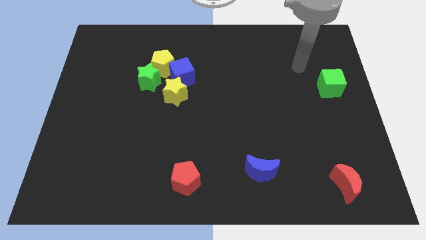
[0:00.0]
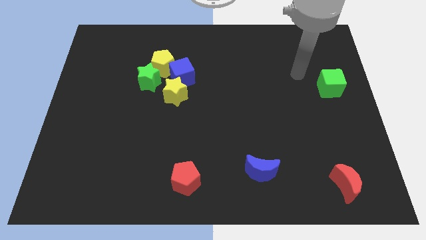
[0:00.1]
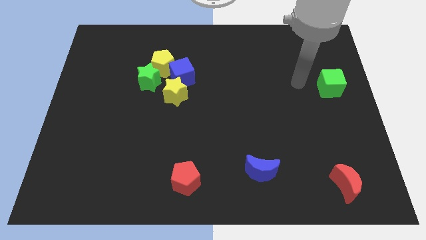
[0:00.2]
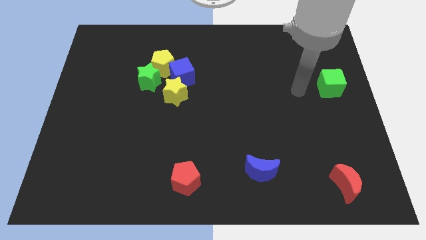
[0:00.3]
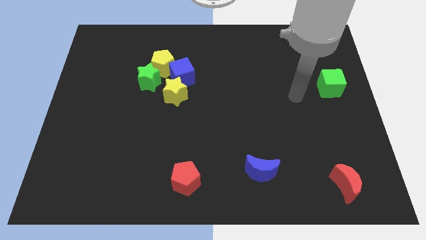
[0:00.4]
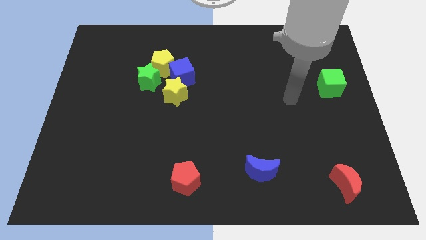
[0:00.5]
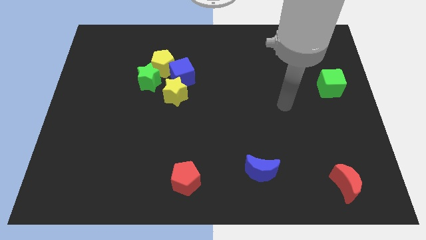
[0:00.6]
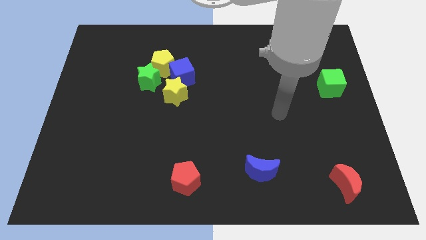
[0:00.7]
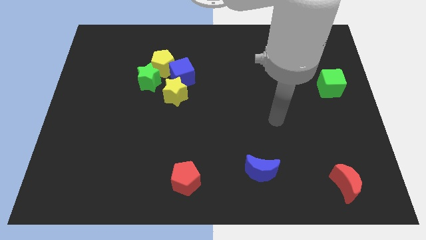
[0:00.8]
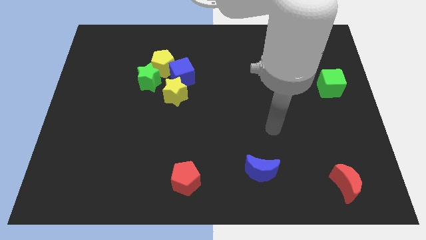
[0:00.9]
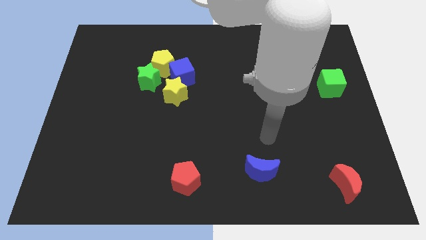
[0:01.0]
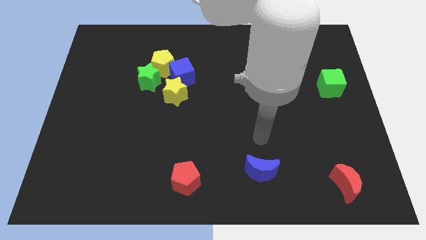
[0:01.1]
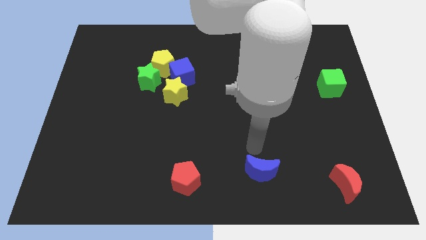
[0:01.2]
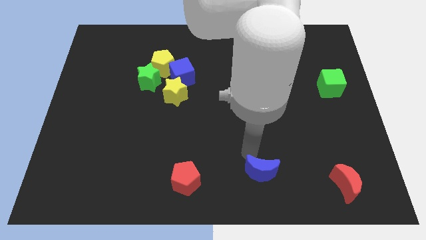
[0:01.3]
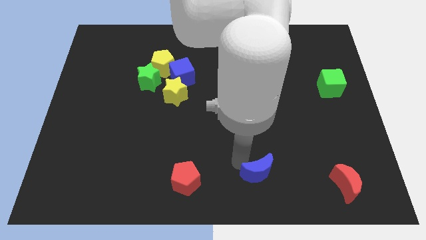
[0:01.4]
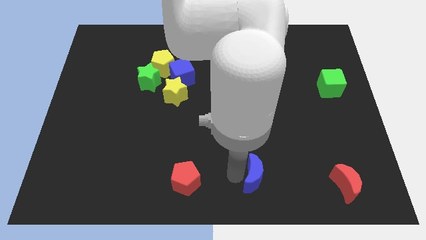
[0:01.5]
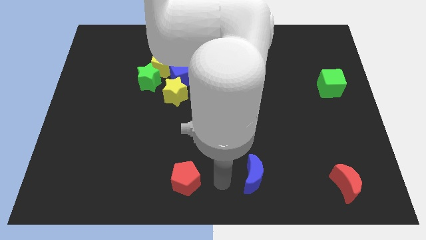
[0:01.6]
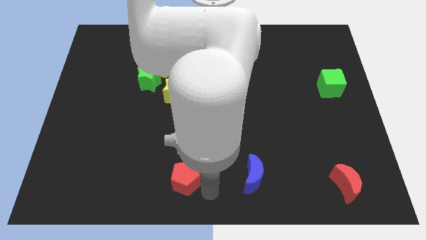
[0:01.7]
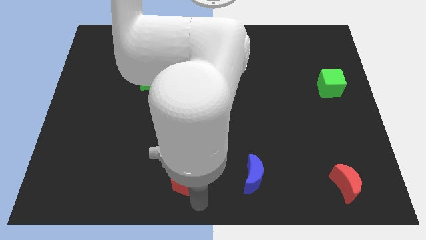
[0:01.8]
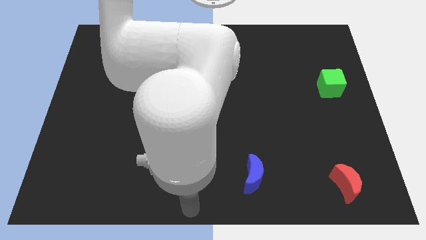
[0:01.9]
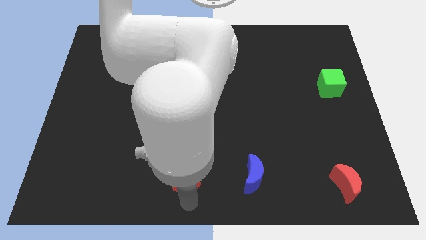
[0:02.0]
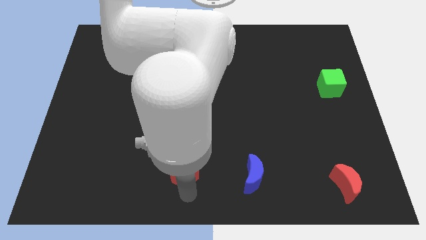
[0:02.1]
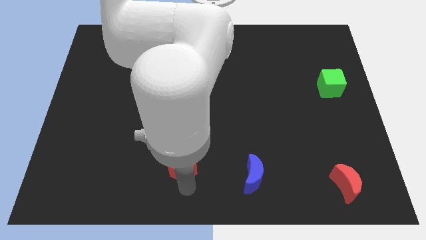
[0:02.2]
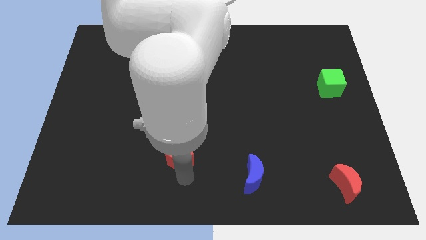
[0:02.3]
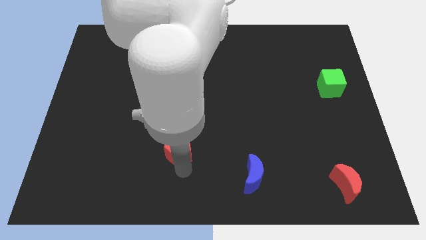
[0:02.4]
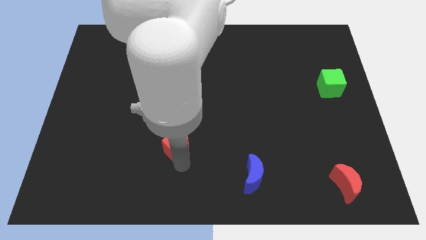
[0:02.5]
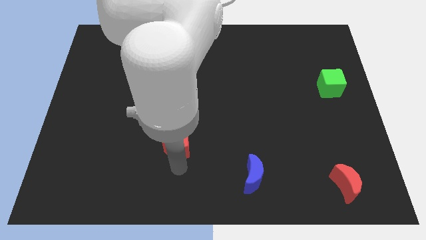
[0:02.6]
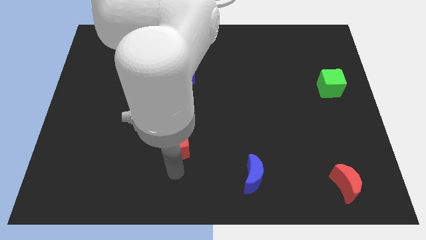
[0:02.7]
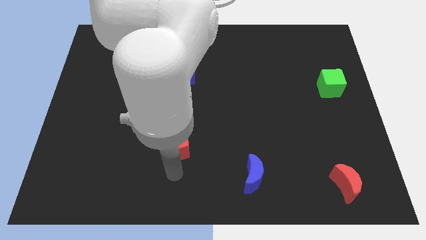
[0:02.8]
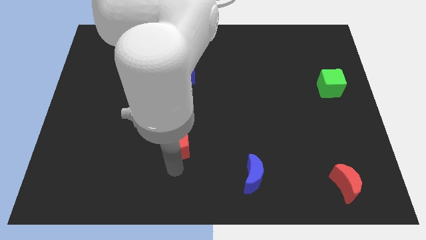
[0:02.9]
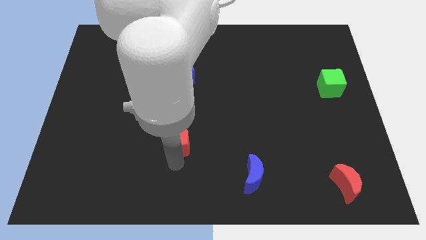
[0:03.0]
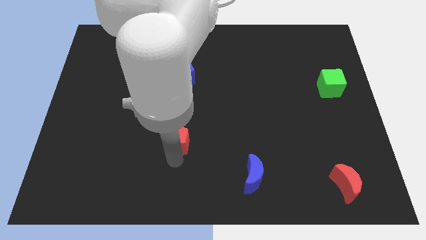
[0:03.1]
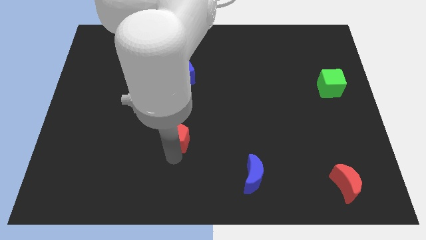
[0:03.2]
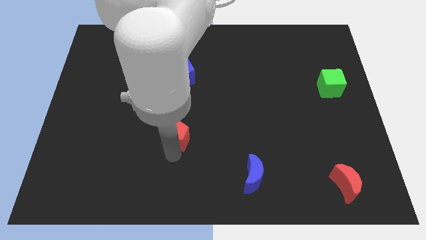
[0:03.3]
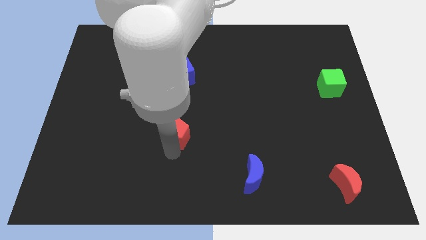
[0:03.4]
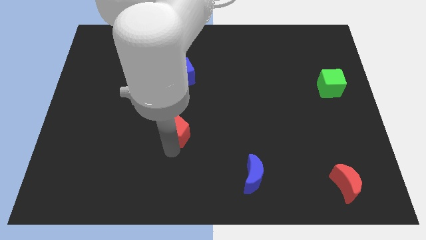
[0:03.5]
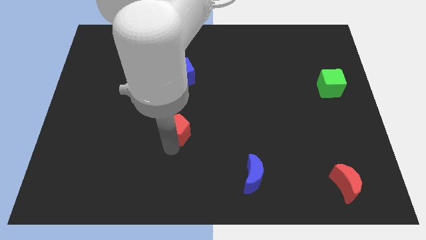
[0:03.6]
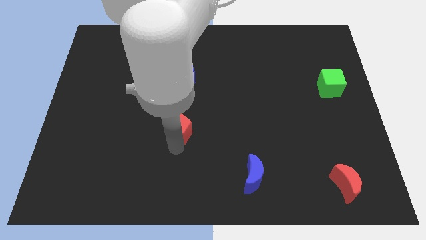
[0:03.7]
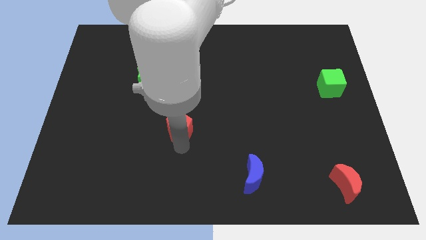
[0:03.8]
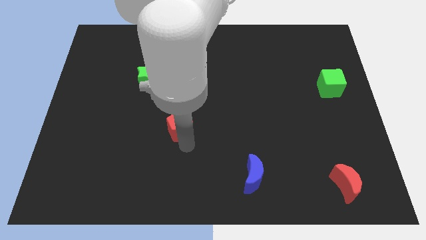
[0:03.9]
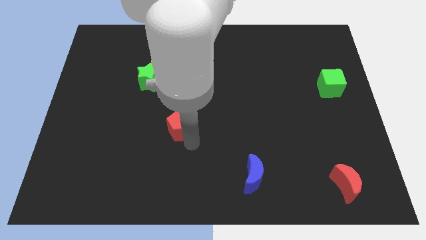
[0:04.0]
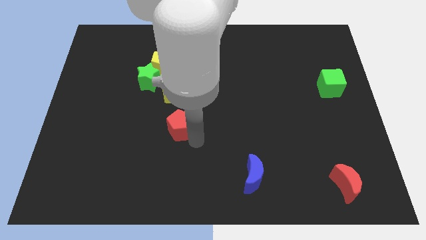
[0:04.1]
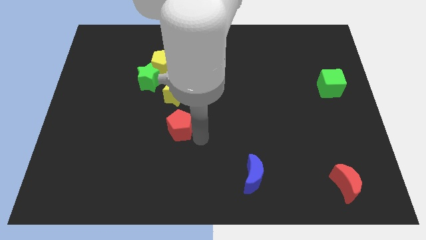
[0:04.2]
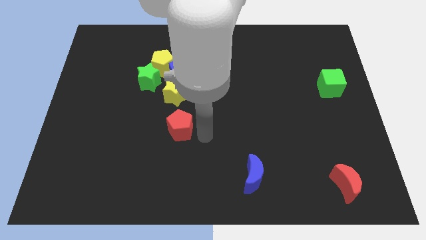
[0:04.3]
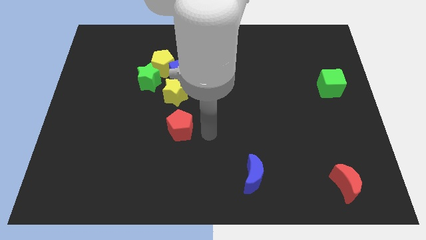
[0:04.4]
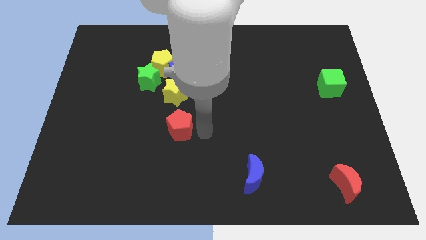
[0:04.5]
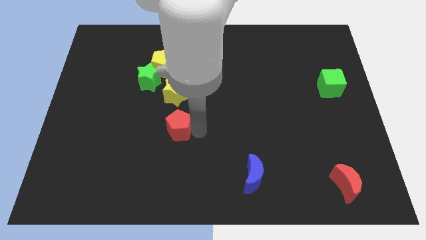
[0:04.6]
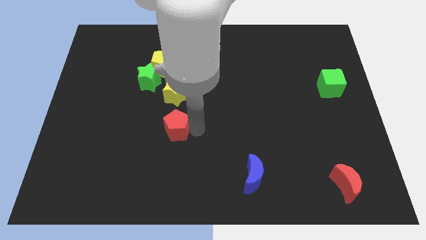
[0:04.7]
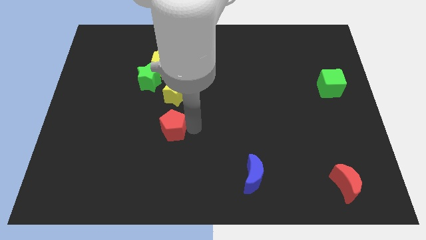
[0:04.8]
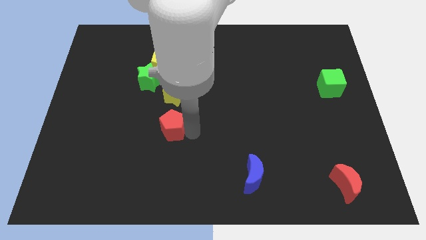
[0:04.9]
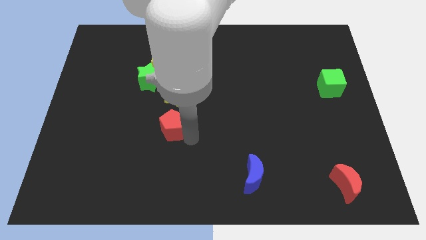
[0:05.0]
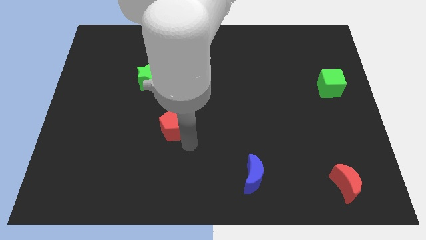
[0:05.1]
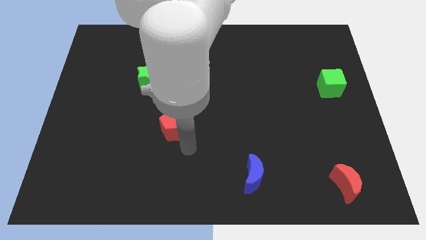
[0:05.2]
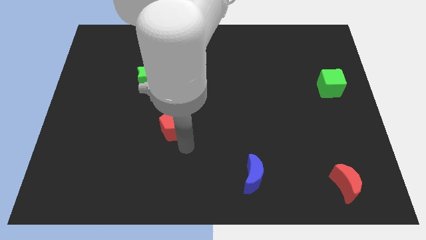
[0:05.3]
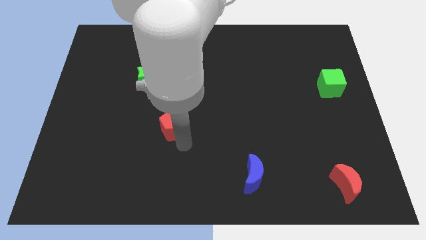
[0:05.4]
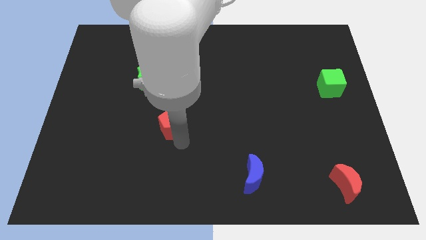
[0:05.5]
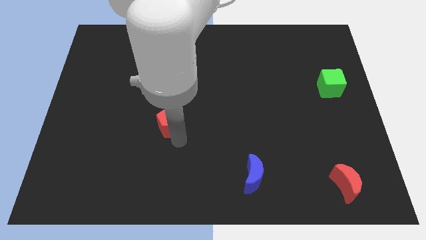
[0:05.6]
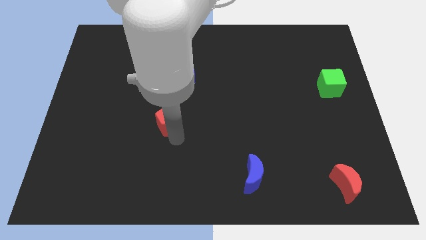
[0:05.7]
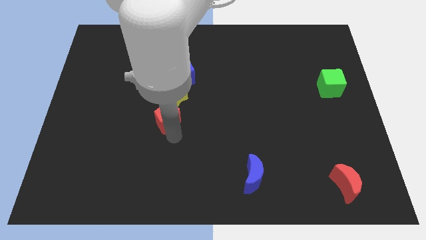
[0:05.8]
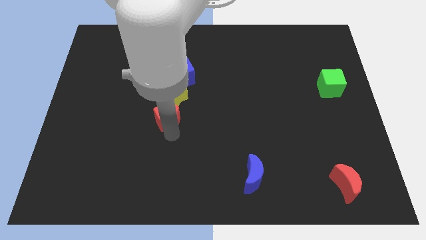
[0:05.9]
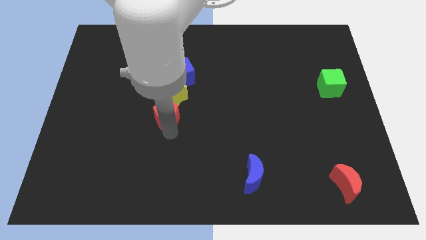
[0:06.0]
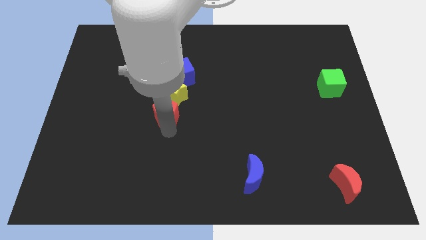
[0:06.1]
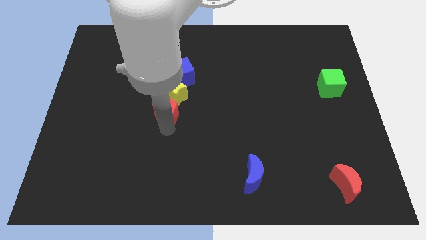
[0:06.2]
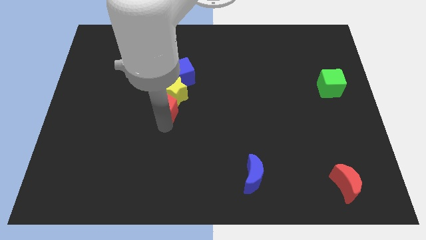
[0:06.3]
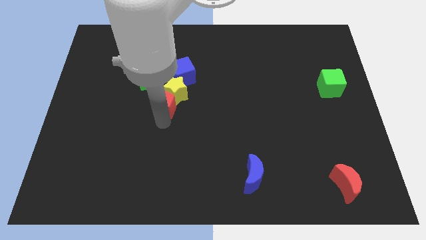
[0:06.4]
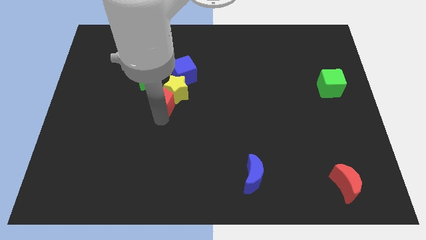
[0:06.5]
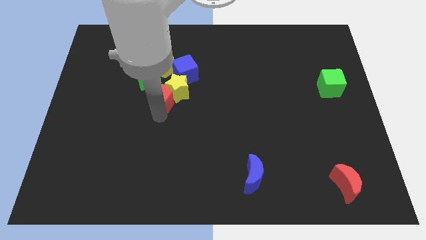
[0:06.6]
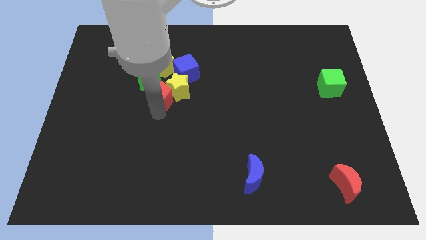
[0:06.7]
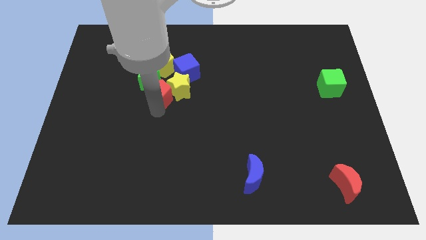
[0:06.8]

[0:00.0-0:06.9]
push the red pentagon to the green star
